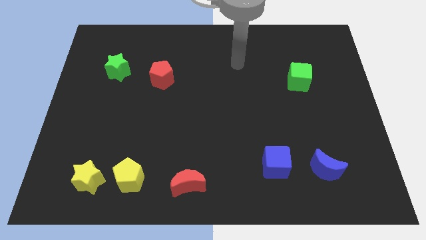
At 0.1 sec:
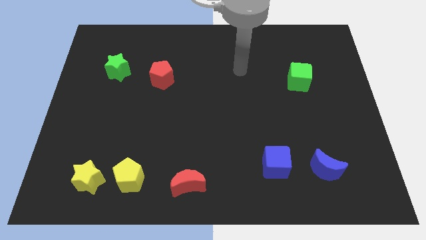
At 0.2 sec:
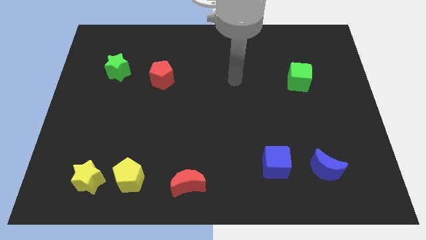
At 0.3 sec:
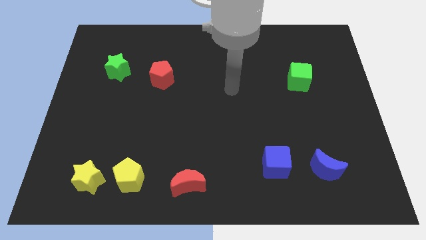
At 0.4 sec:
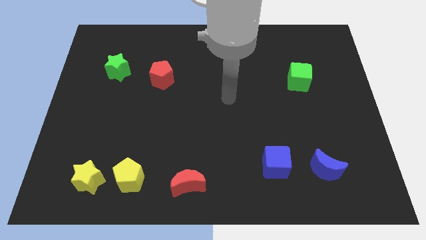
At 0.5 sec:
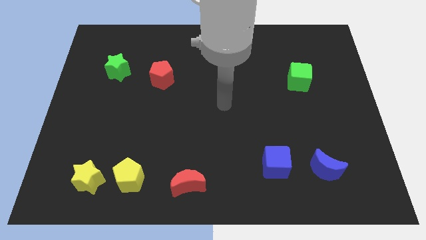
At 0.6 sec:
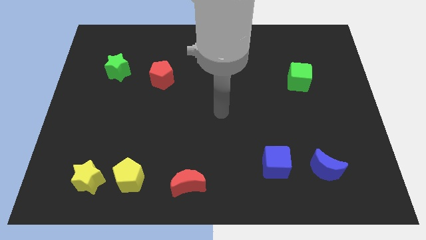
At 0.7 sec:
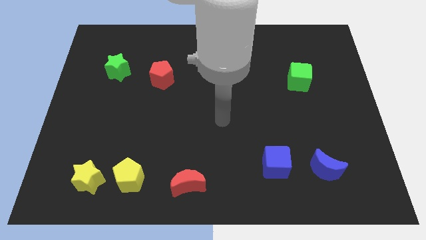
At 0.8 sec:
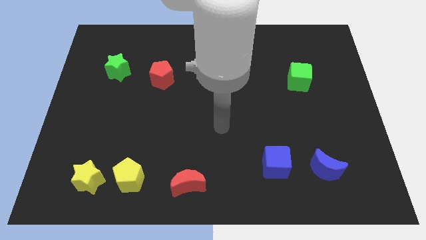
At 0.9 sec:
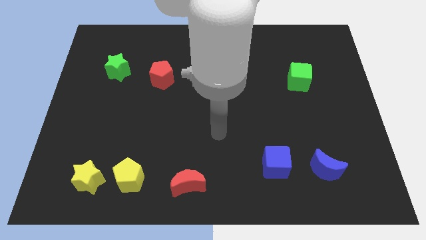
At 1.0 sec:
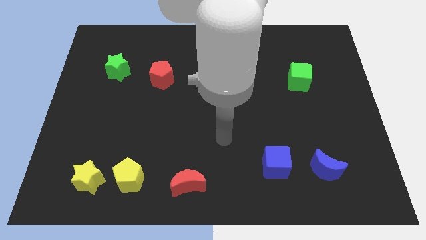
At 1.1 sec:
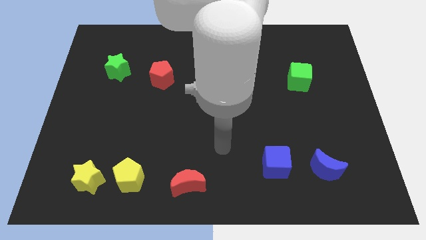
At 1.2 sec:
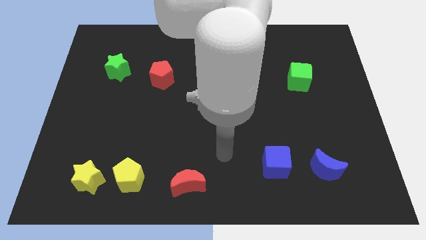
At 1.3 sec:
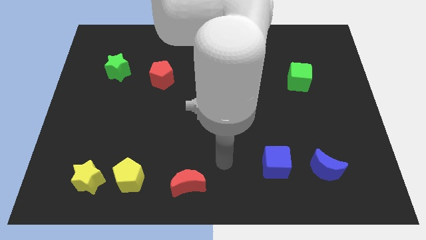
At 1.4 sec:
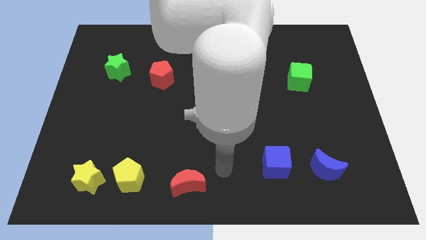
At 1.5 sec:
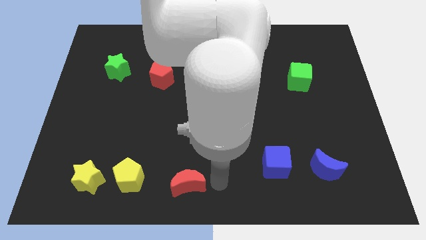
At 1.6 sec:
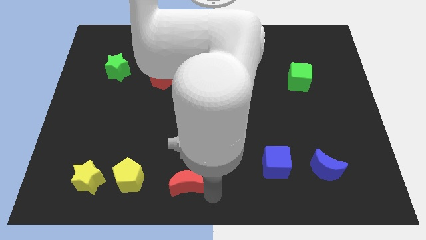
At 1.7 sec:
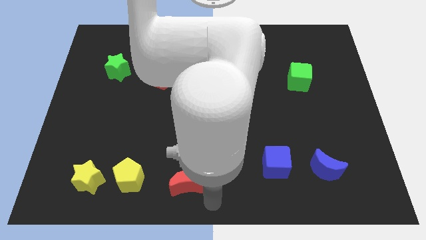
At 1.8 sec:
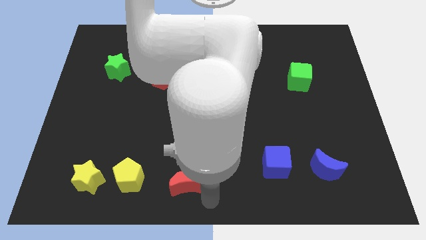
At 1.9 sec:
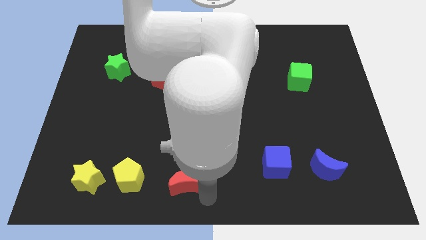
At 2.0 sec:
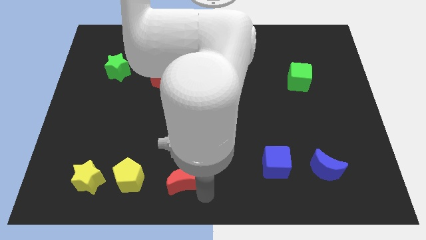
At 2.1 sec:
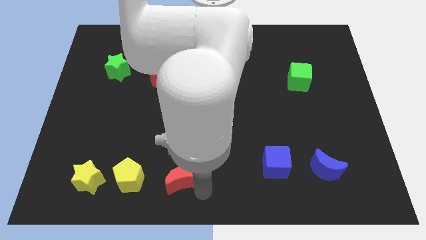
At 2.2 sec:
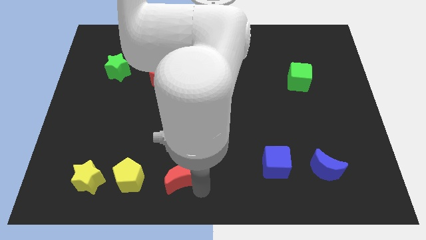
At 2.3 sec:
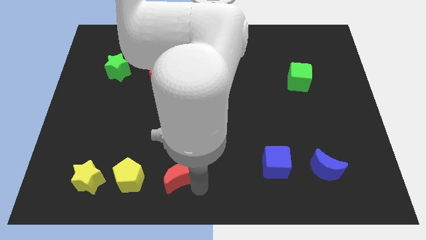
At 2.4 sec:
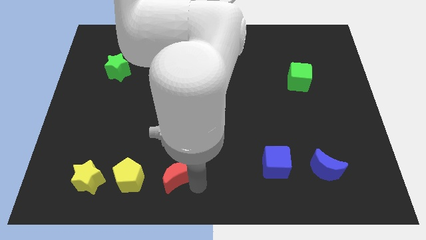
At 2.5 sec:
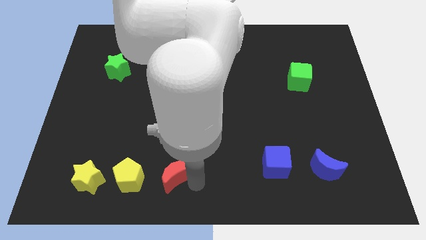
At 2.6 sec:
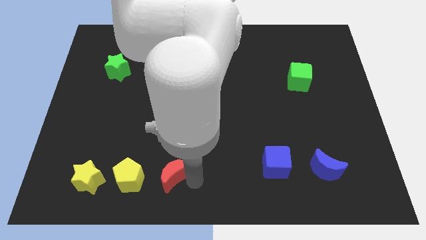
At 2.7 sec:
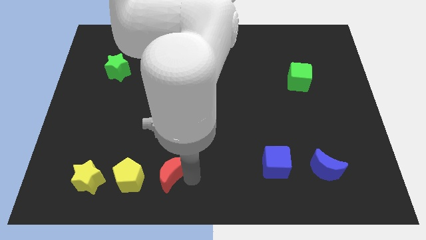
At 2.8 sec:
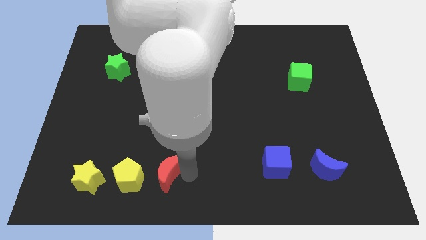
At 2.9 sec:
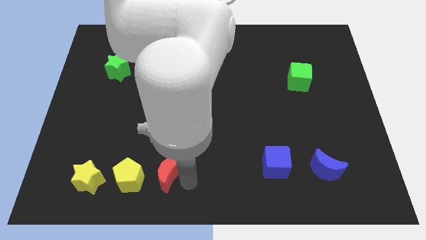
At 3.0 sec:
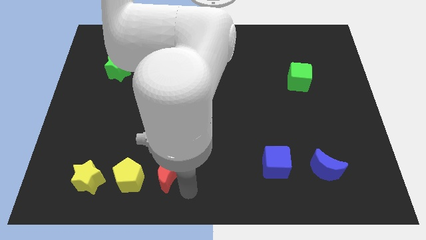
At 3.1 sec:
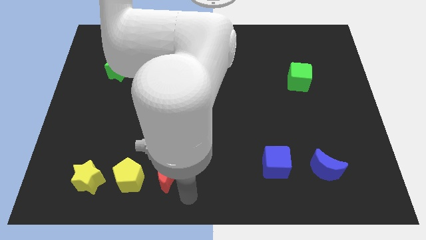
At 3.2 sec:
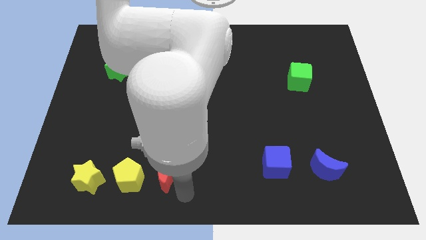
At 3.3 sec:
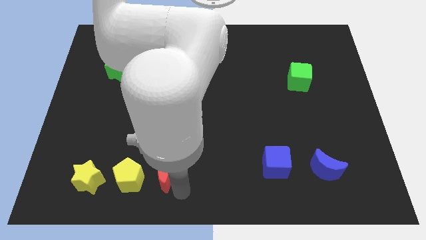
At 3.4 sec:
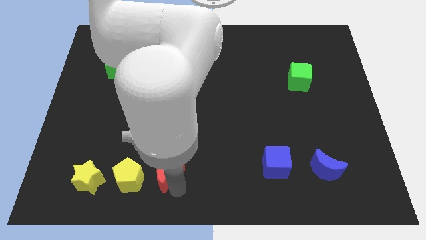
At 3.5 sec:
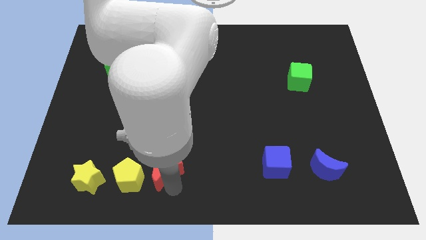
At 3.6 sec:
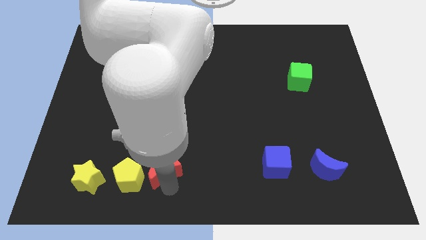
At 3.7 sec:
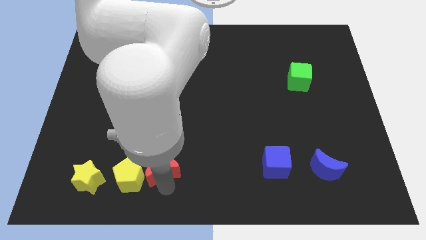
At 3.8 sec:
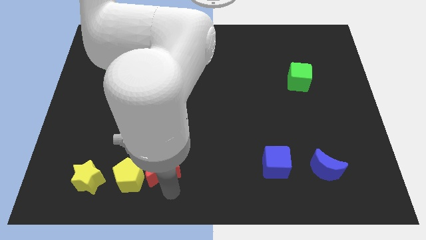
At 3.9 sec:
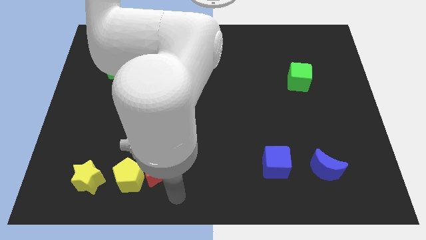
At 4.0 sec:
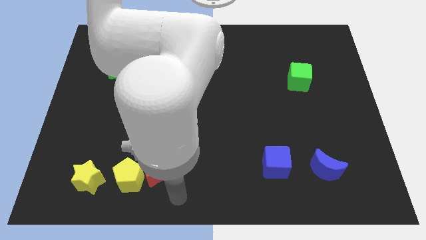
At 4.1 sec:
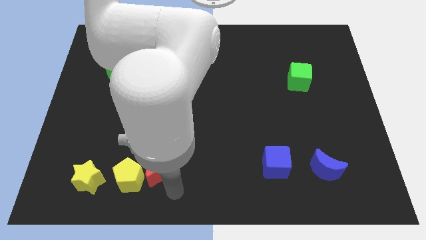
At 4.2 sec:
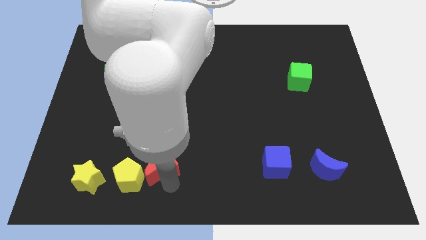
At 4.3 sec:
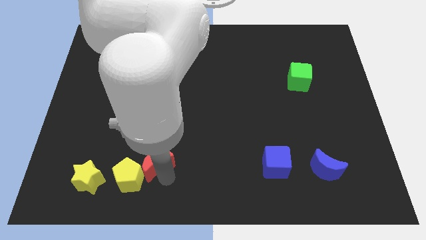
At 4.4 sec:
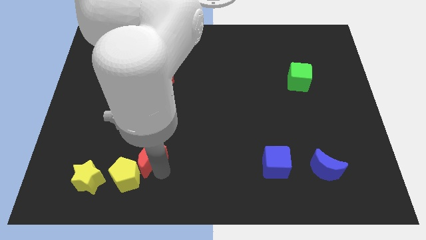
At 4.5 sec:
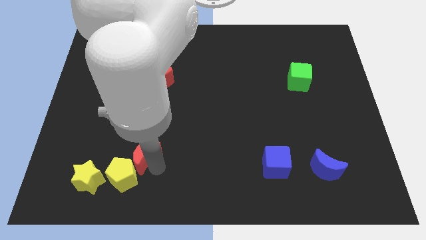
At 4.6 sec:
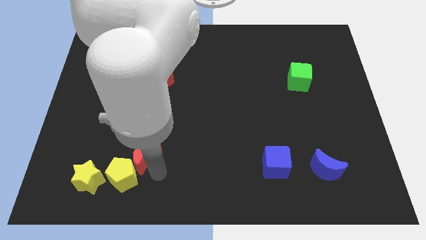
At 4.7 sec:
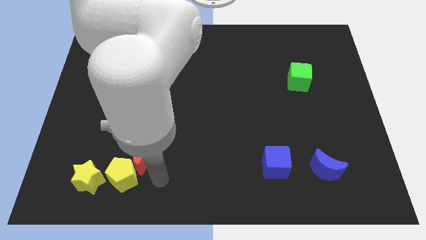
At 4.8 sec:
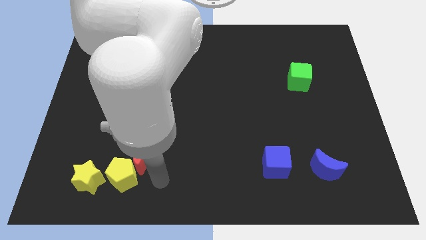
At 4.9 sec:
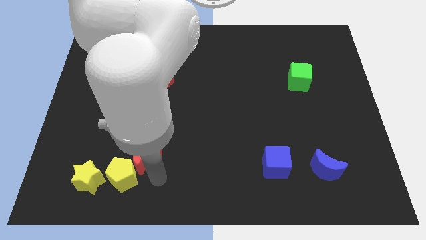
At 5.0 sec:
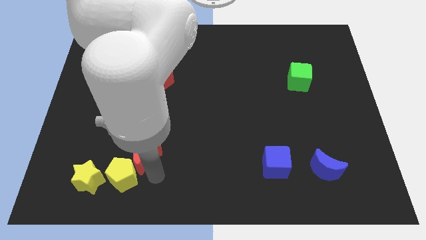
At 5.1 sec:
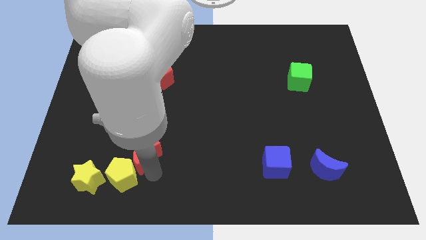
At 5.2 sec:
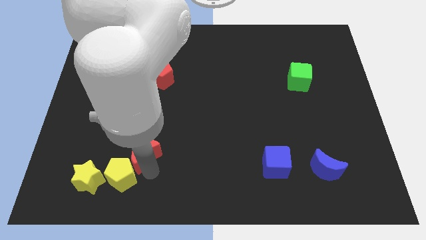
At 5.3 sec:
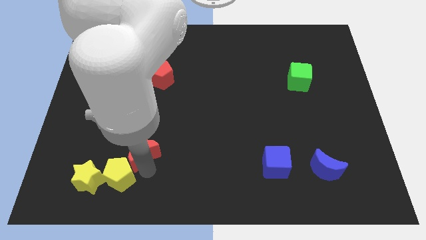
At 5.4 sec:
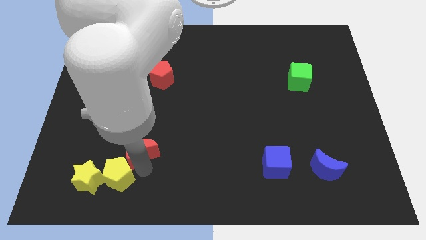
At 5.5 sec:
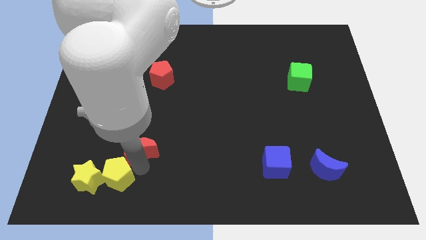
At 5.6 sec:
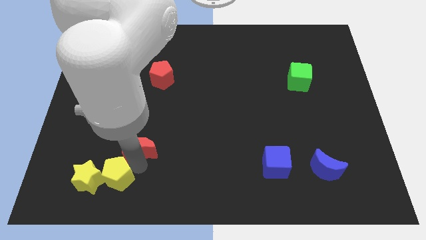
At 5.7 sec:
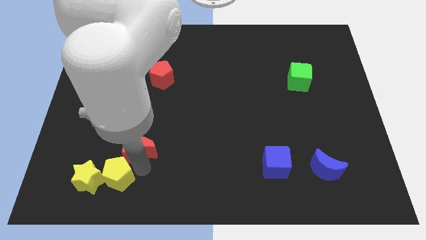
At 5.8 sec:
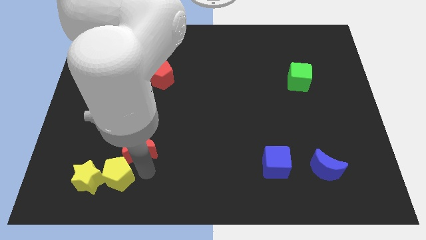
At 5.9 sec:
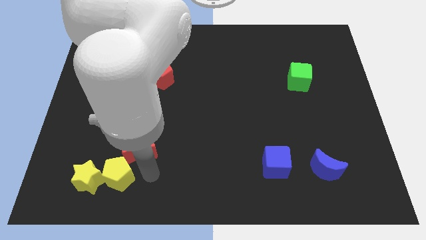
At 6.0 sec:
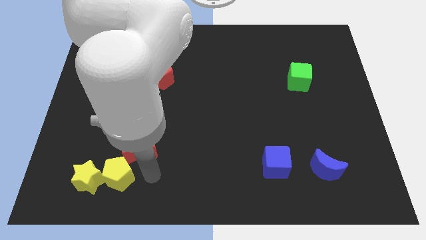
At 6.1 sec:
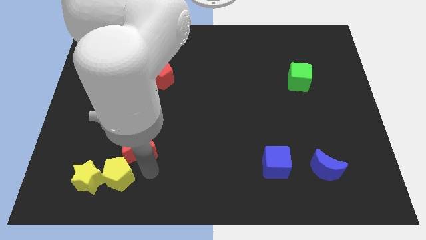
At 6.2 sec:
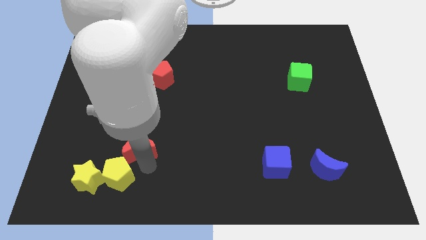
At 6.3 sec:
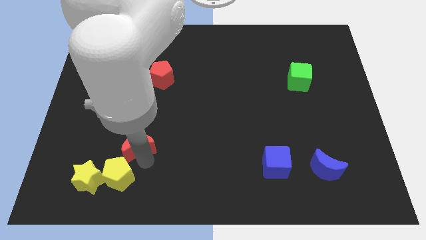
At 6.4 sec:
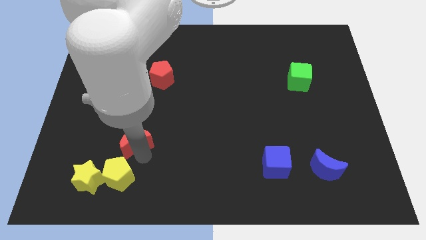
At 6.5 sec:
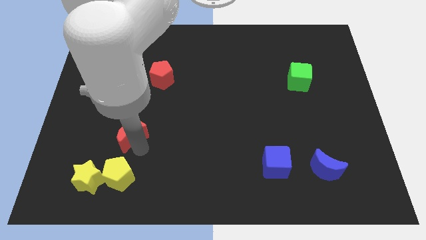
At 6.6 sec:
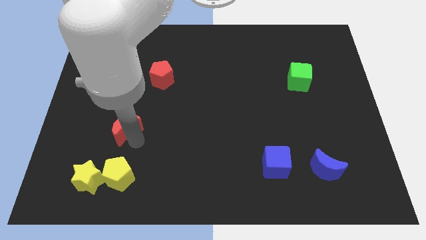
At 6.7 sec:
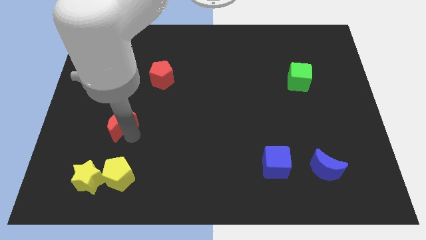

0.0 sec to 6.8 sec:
slide the red moon up and then to the left

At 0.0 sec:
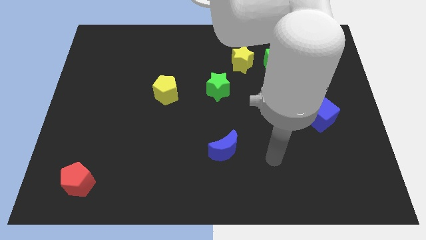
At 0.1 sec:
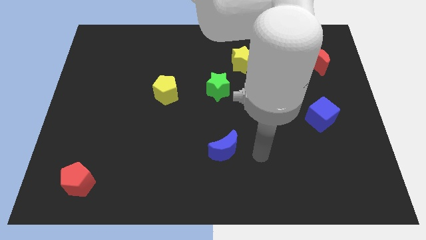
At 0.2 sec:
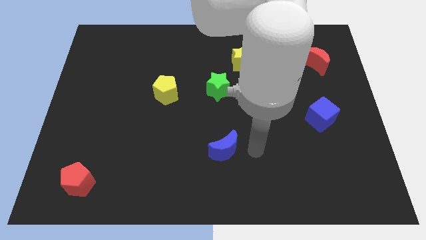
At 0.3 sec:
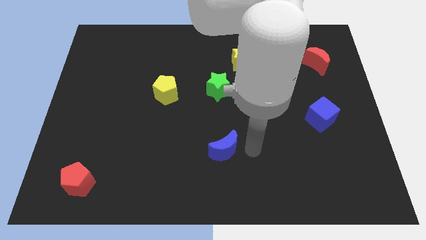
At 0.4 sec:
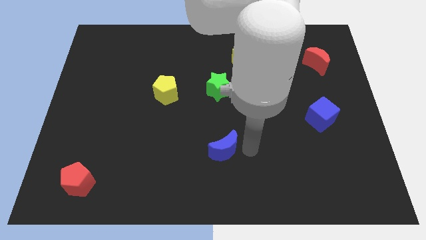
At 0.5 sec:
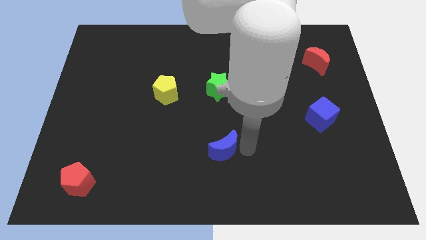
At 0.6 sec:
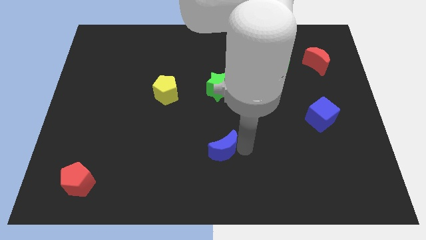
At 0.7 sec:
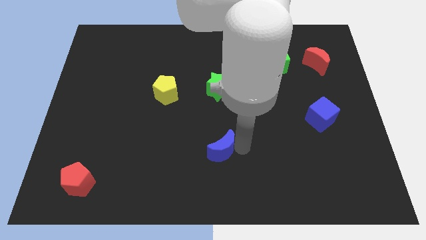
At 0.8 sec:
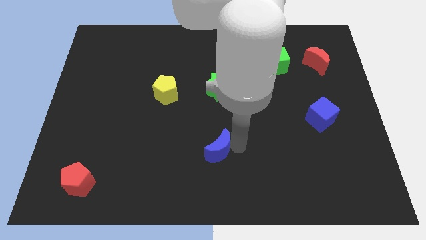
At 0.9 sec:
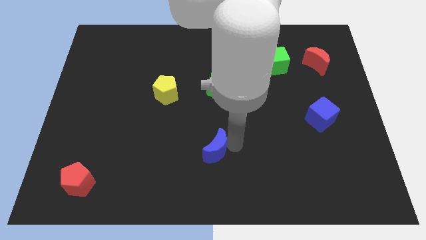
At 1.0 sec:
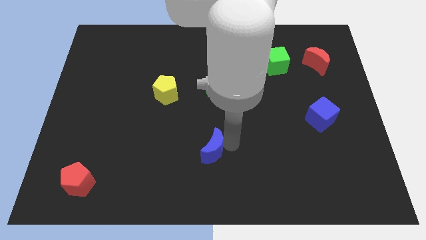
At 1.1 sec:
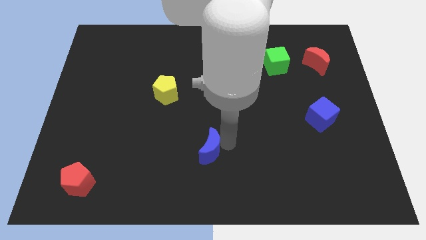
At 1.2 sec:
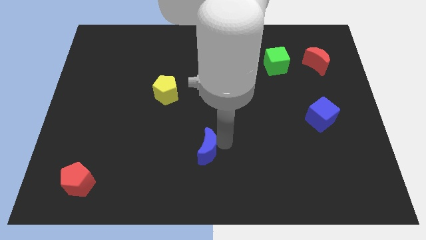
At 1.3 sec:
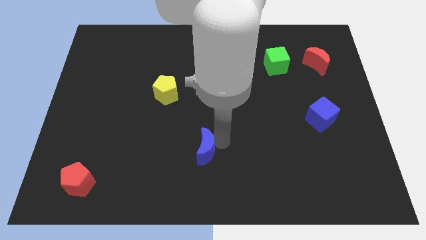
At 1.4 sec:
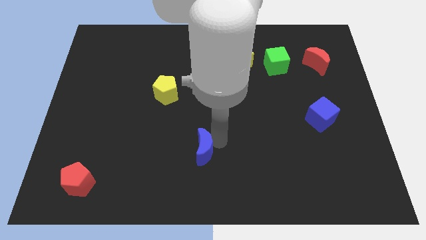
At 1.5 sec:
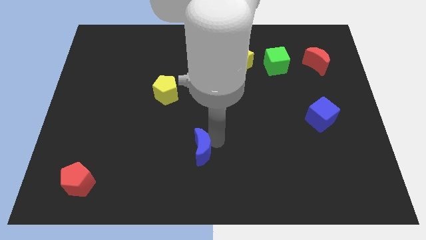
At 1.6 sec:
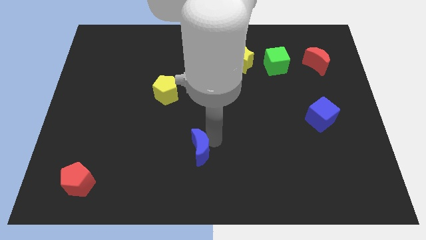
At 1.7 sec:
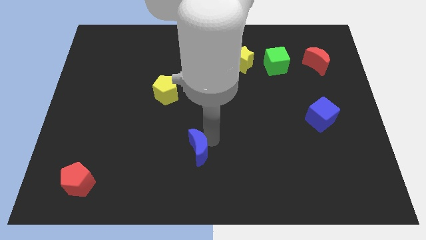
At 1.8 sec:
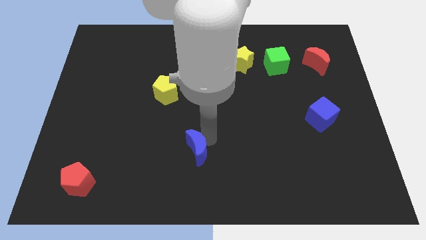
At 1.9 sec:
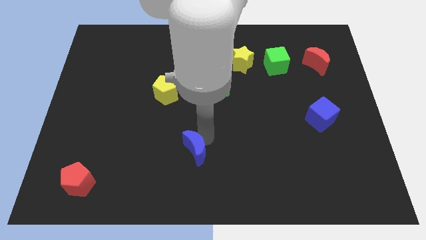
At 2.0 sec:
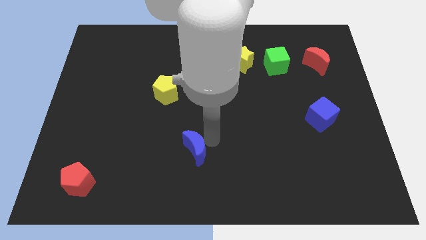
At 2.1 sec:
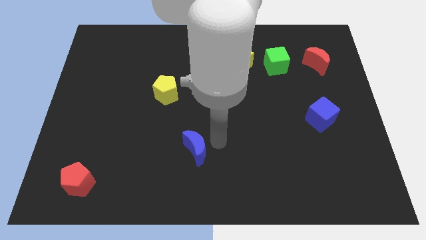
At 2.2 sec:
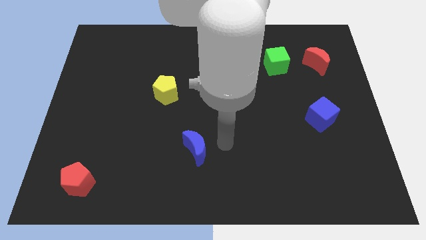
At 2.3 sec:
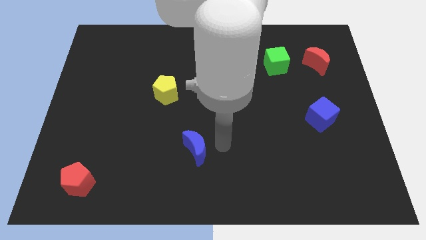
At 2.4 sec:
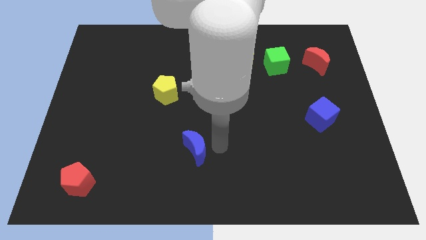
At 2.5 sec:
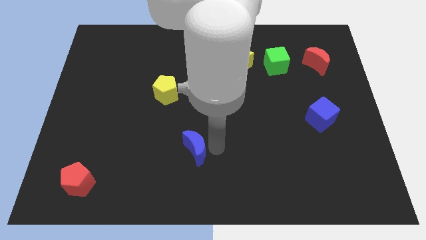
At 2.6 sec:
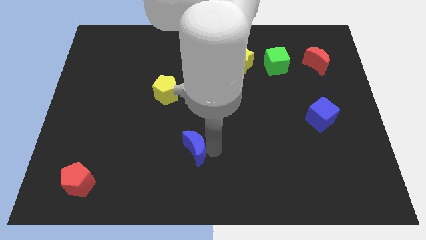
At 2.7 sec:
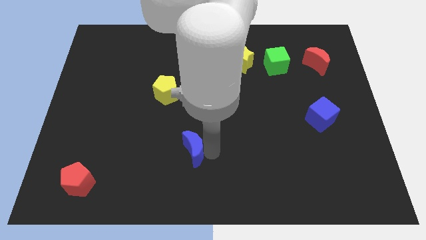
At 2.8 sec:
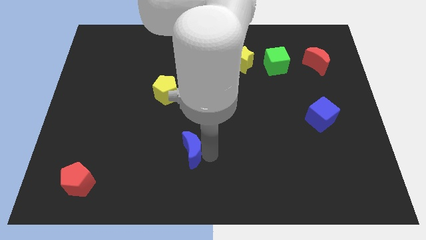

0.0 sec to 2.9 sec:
slide the blue moon to the left somewhat
